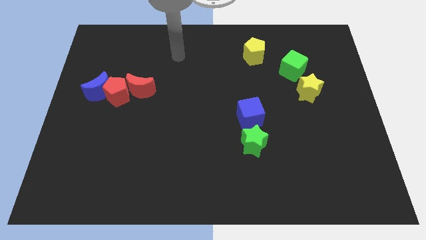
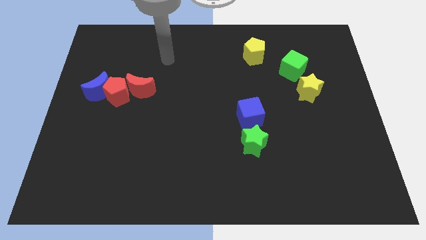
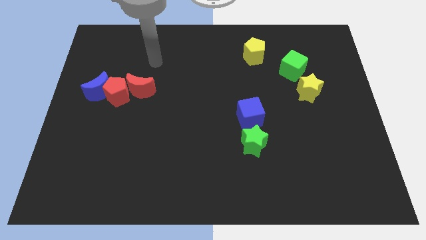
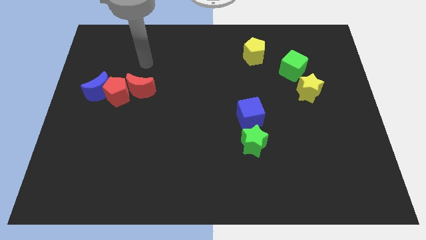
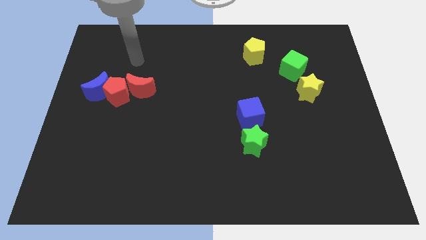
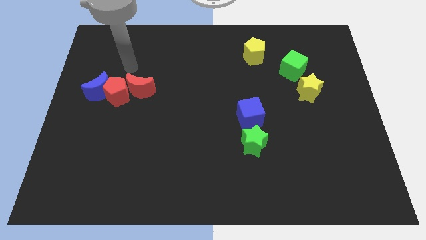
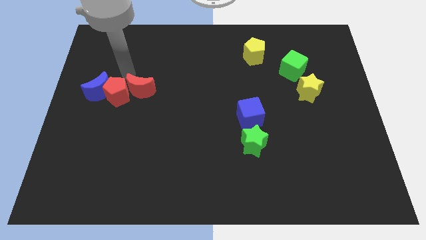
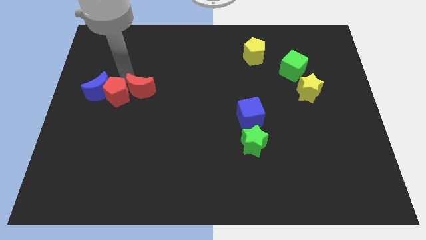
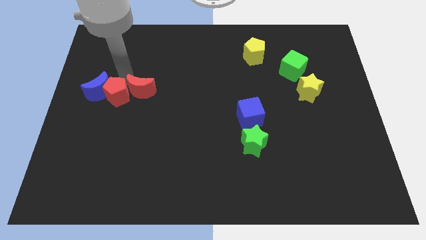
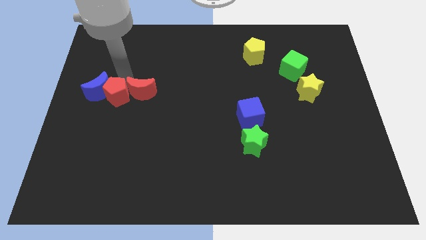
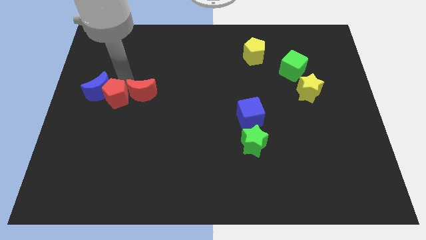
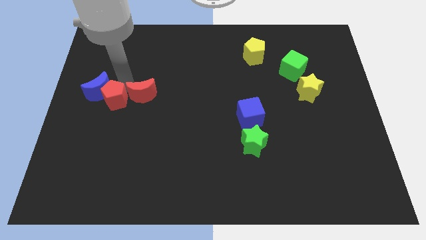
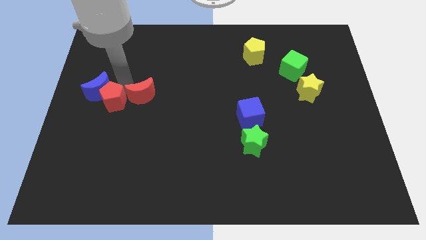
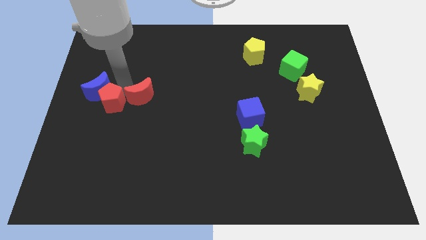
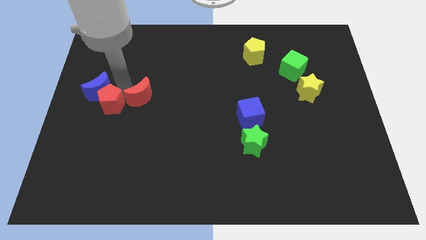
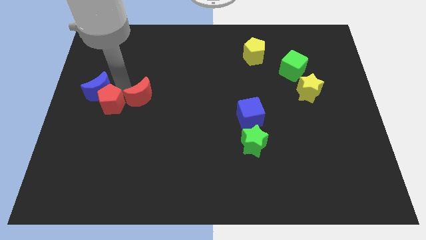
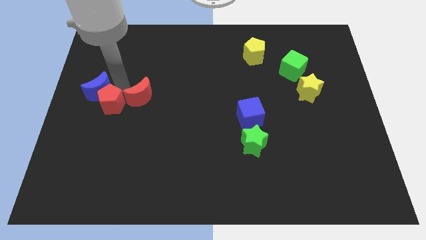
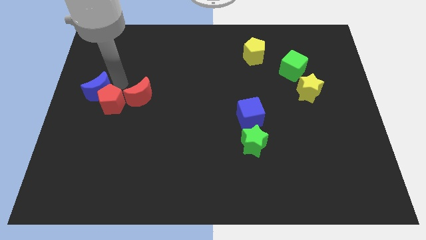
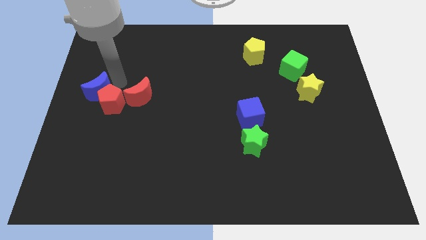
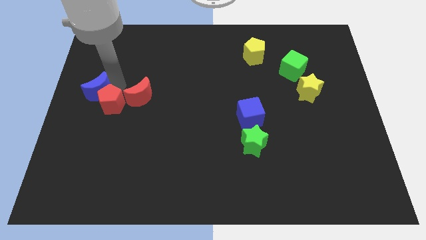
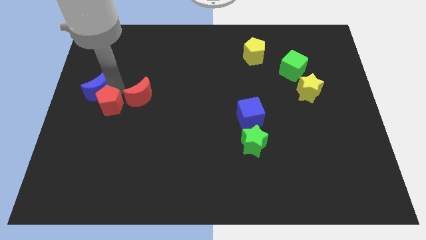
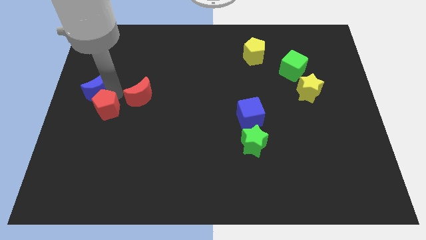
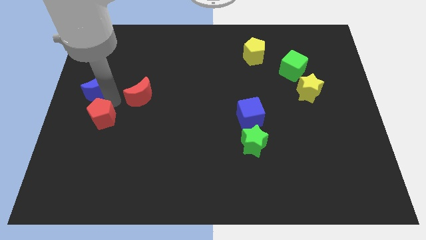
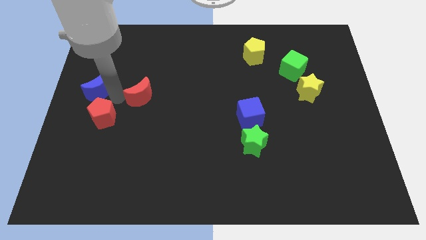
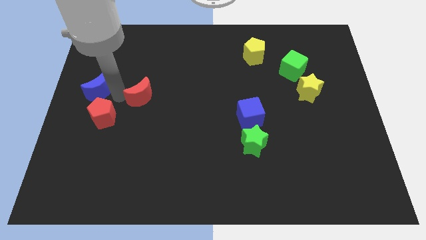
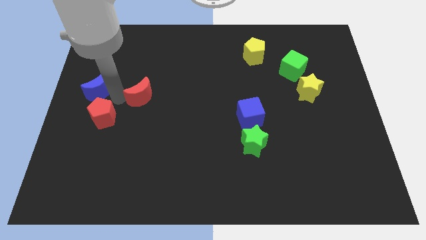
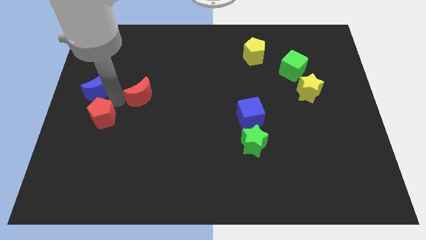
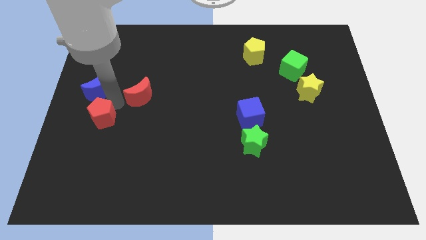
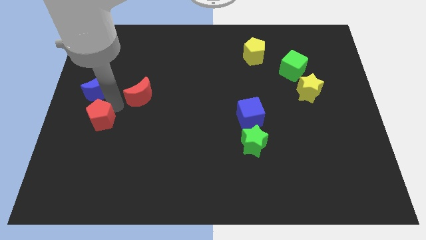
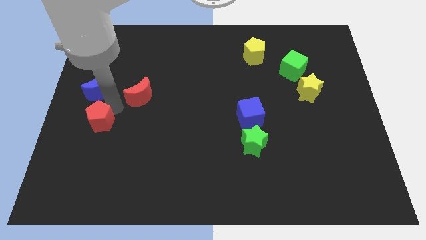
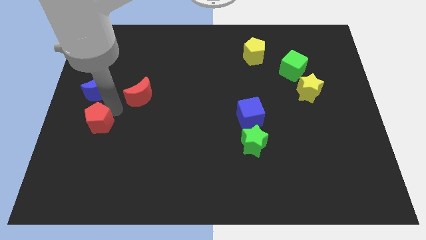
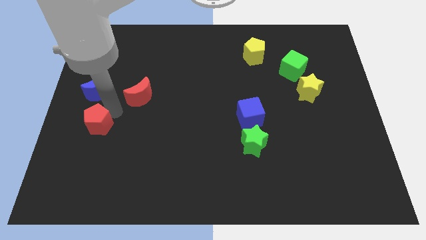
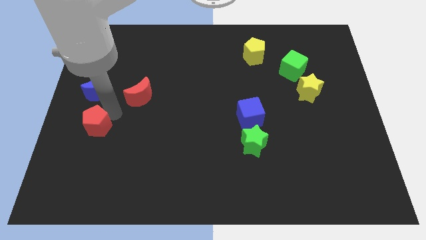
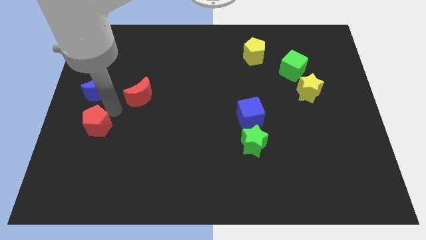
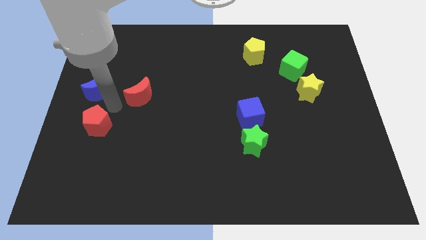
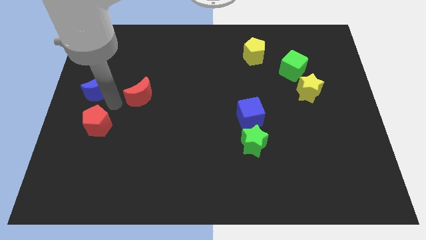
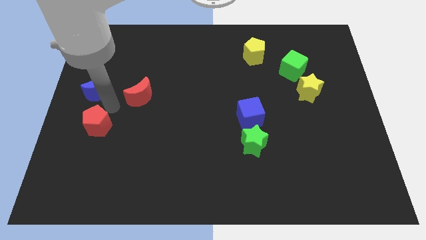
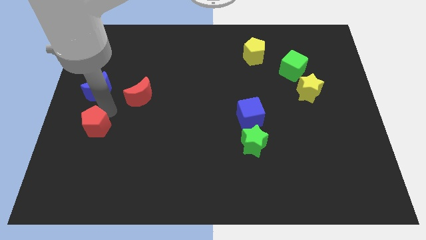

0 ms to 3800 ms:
pull the red pentagon apart from the blue moon and red moon

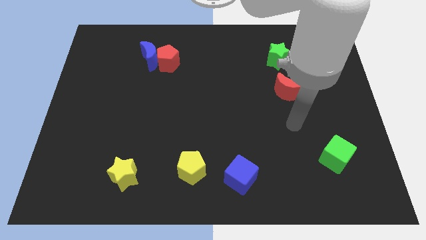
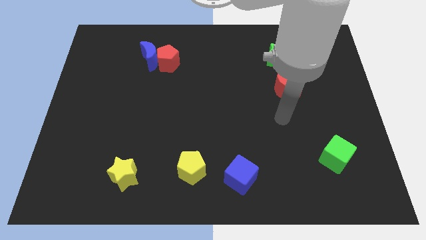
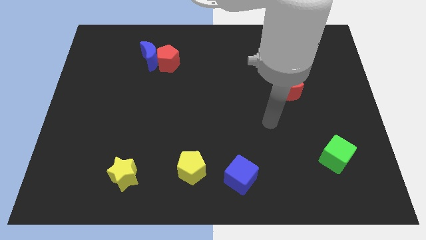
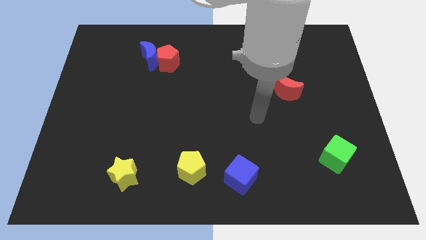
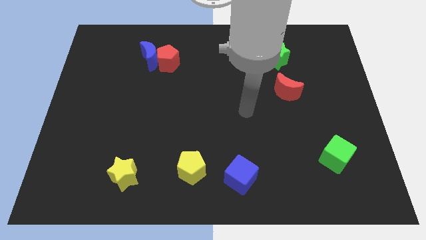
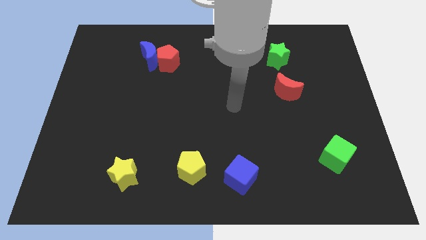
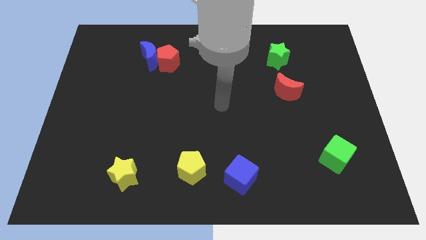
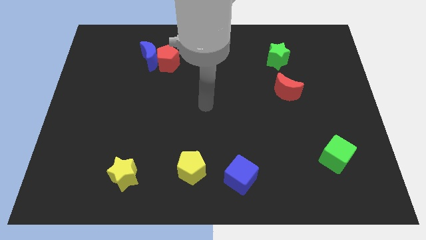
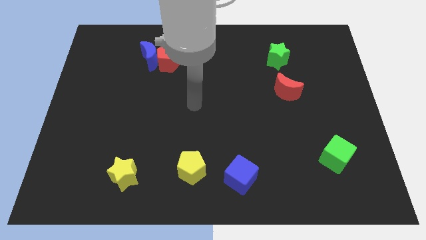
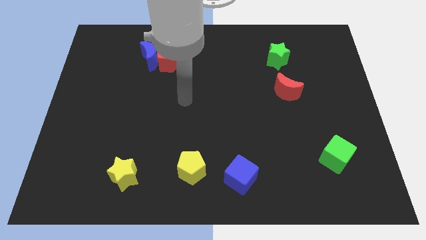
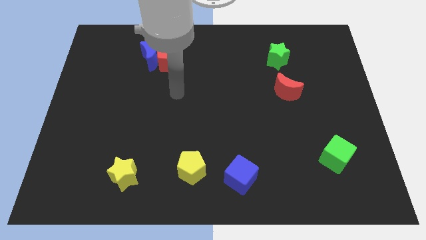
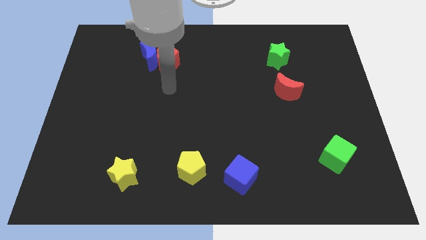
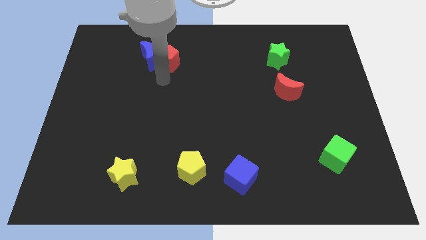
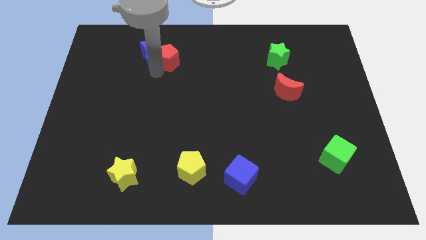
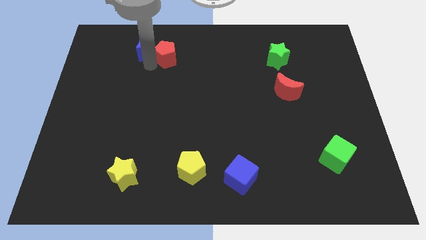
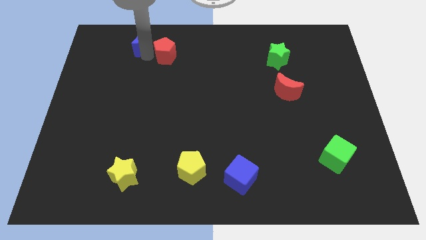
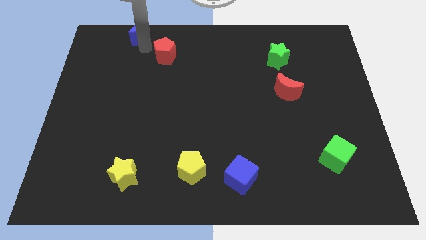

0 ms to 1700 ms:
pull the red pentagon apart from the blue moon

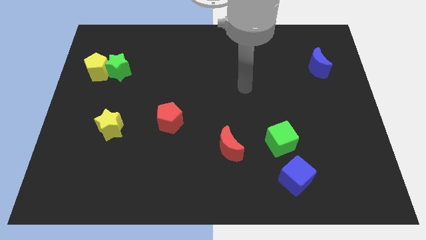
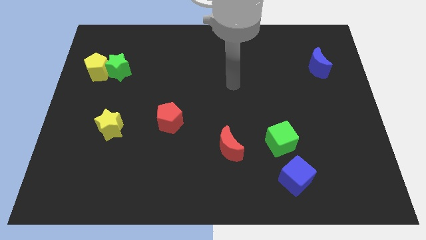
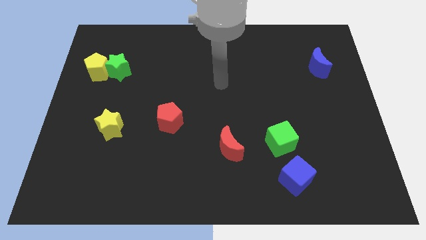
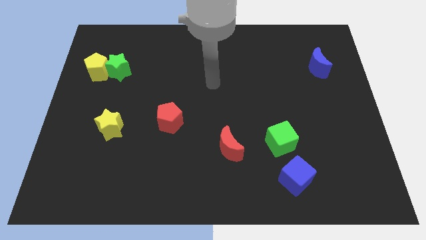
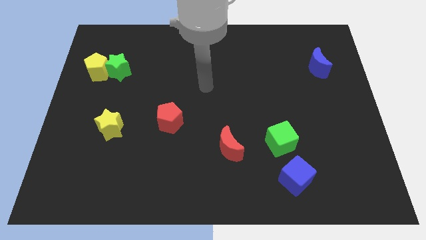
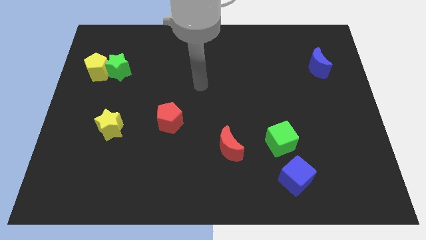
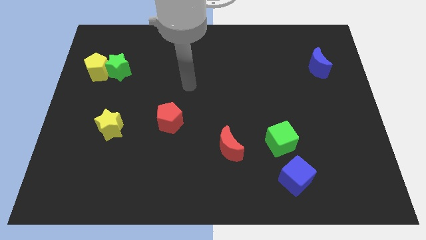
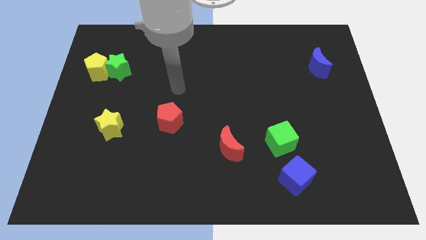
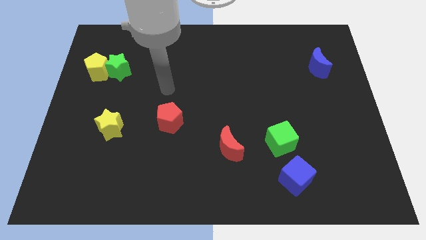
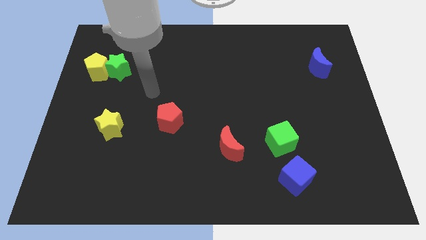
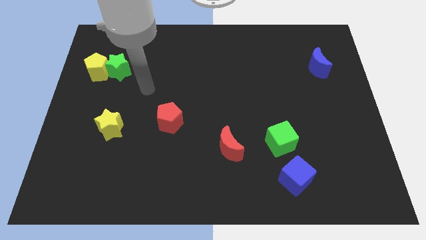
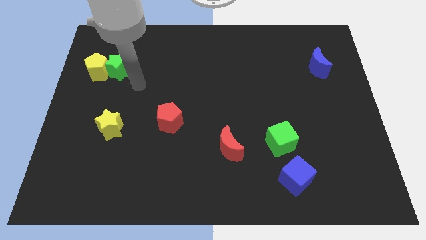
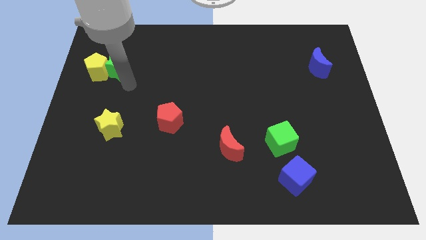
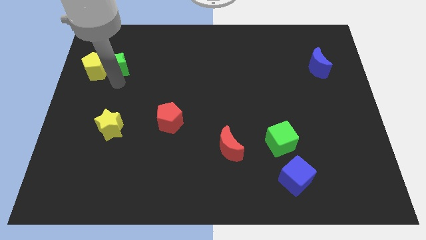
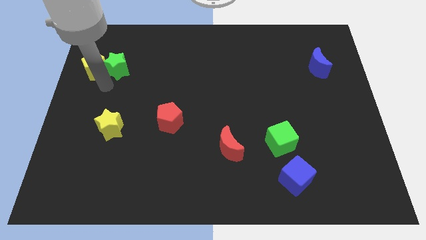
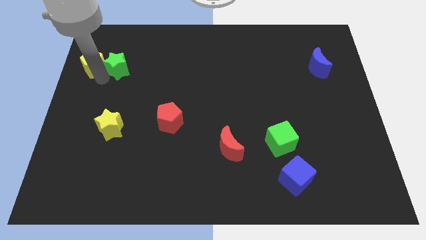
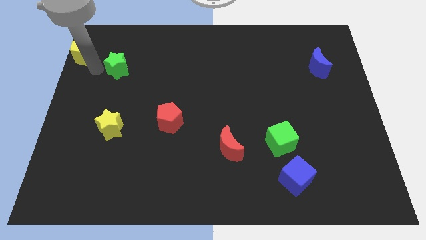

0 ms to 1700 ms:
pull the green star apart from the yellow pentagon

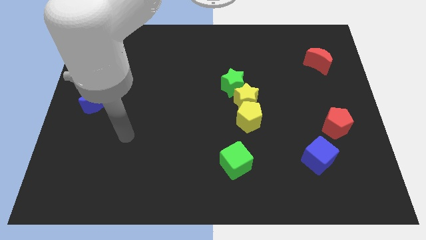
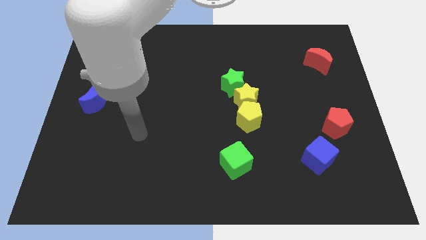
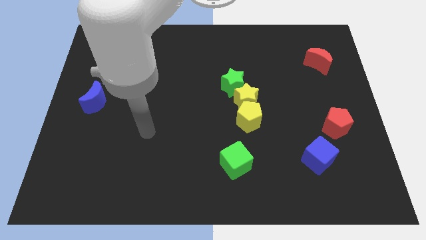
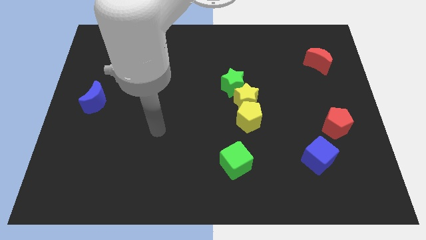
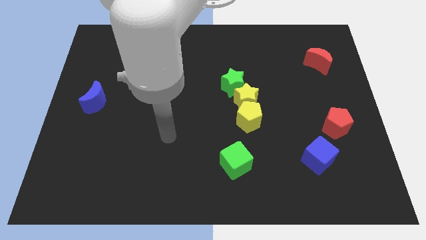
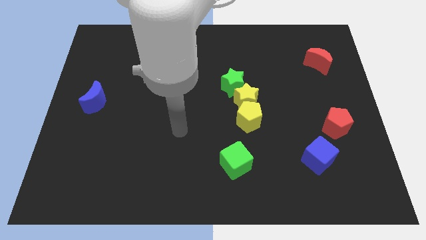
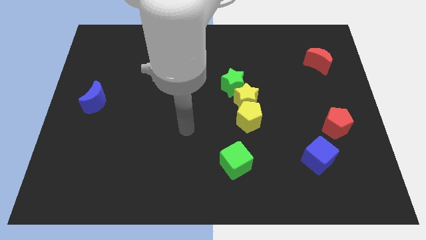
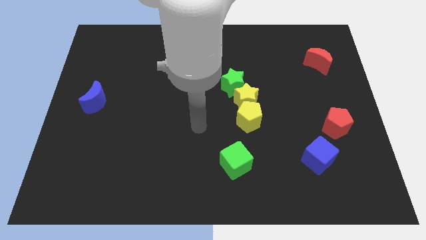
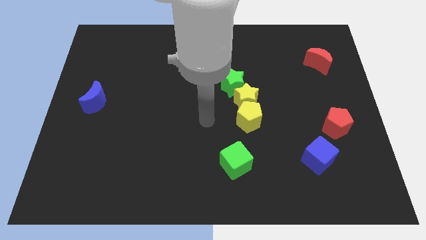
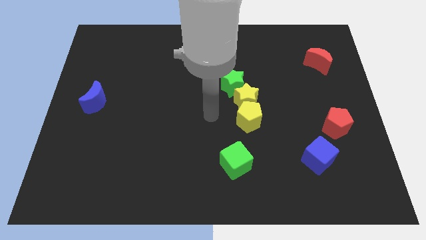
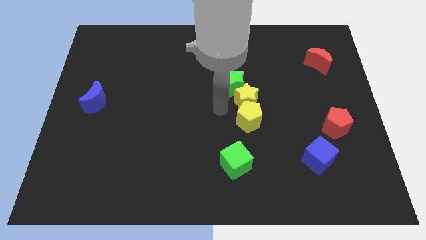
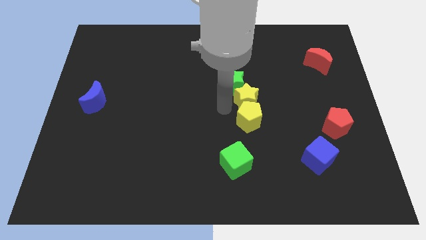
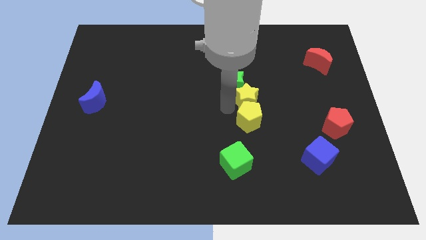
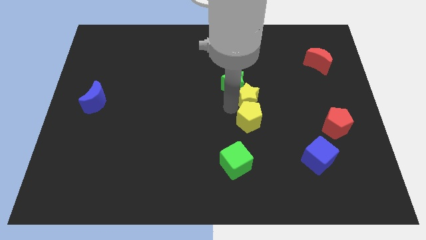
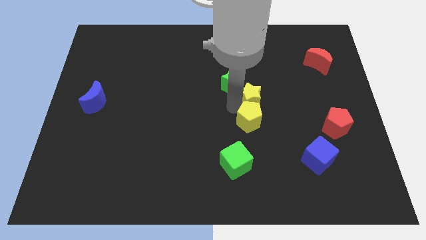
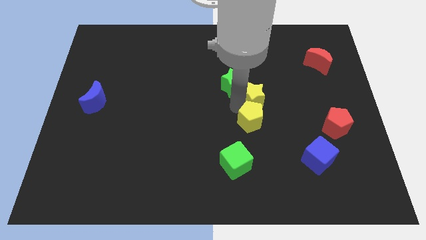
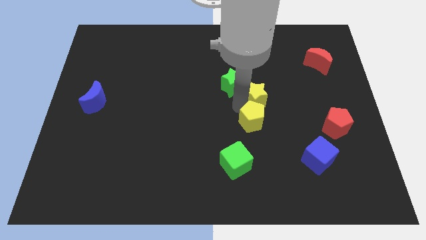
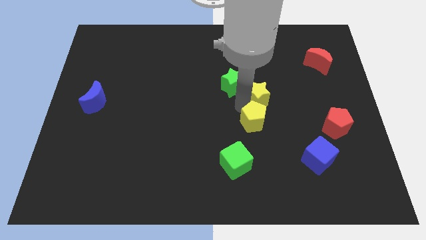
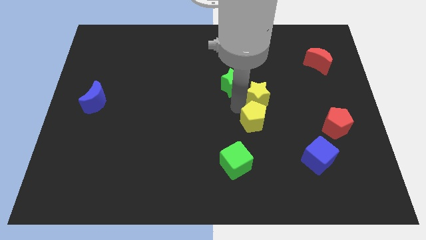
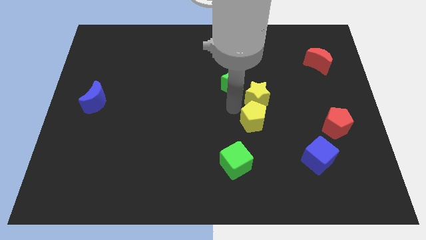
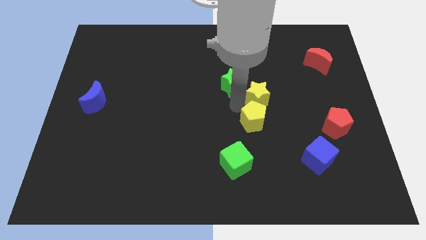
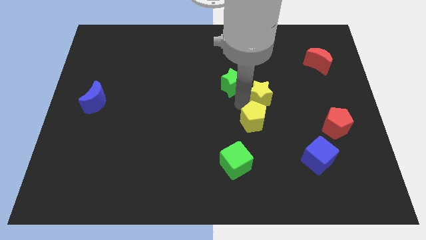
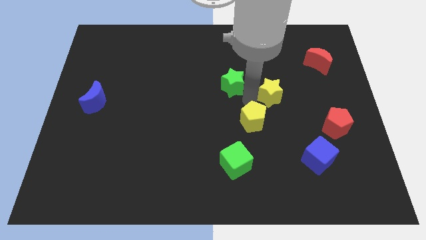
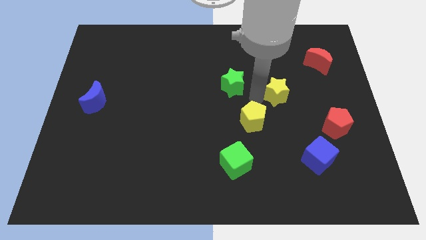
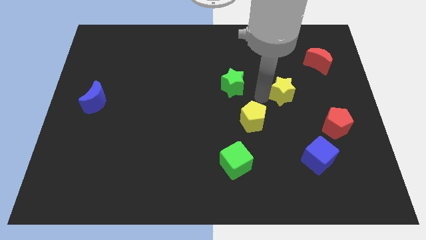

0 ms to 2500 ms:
separate the yellow star from the green star and yellow pentagon
